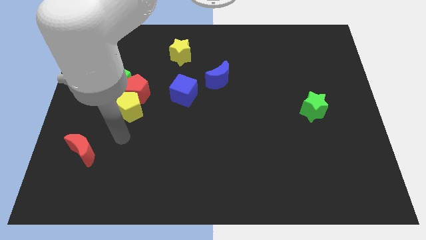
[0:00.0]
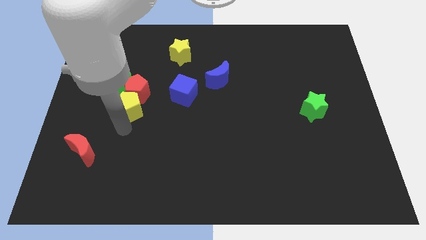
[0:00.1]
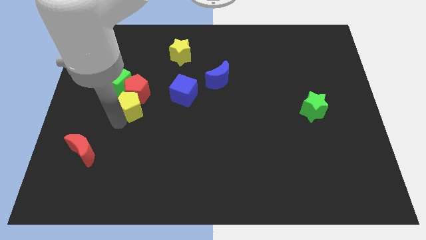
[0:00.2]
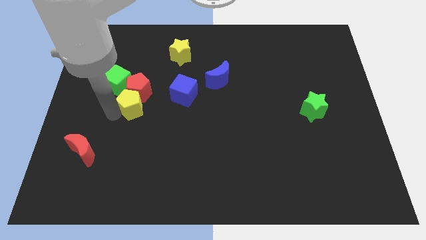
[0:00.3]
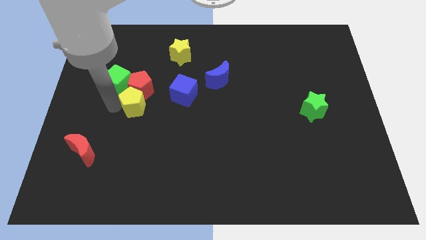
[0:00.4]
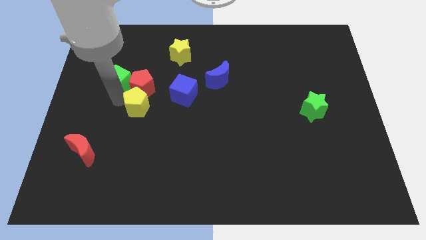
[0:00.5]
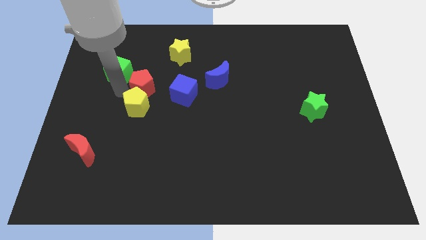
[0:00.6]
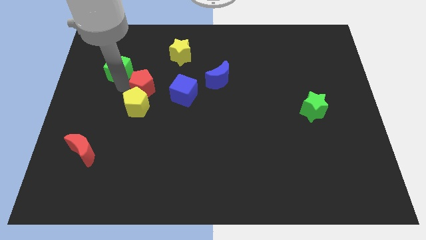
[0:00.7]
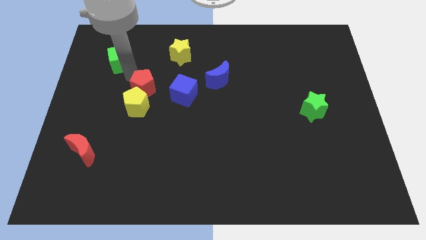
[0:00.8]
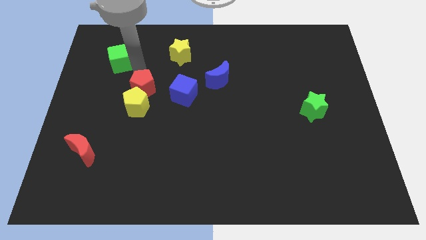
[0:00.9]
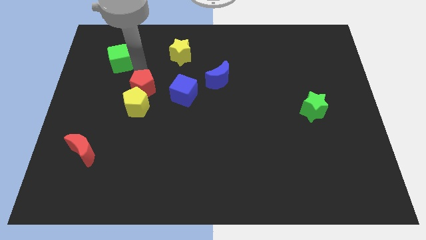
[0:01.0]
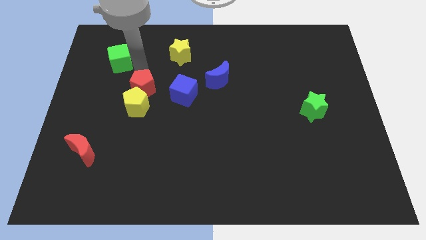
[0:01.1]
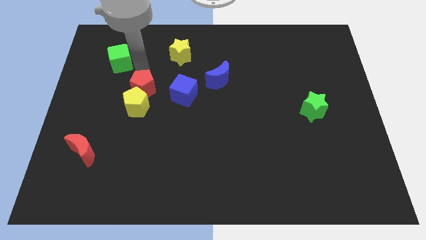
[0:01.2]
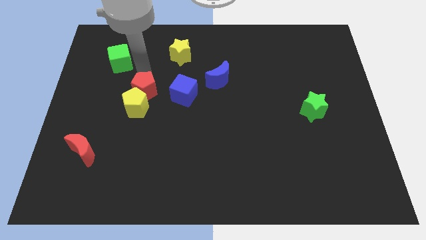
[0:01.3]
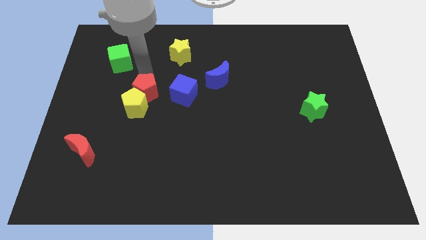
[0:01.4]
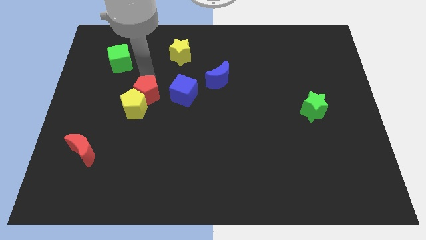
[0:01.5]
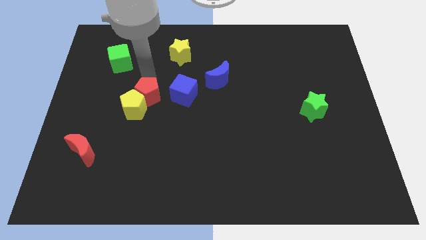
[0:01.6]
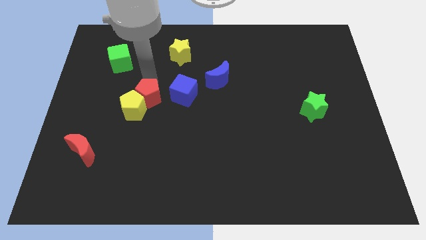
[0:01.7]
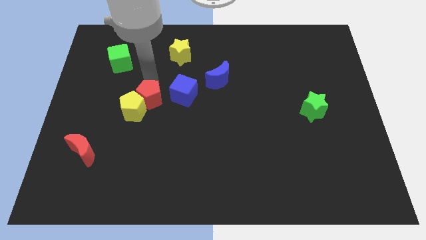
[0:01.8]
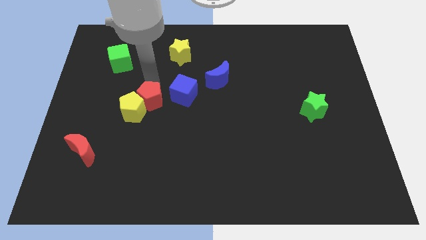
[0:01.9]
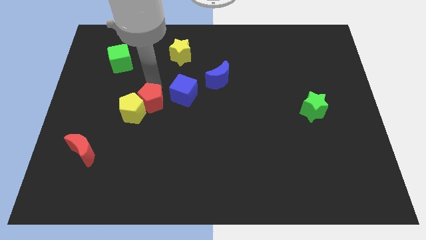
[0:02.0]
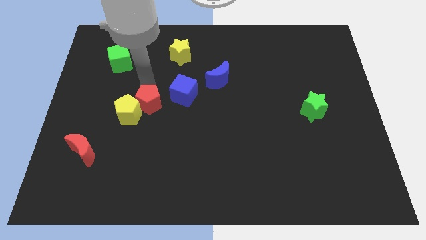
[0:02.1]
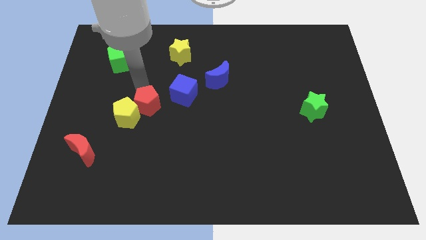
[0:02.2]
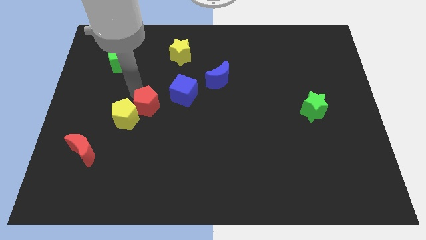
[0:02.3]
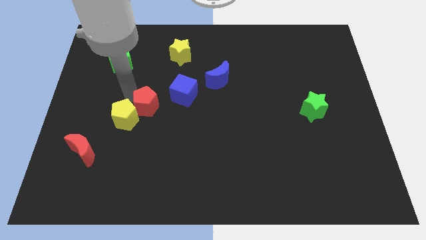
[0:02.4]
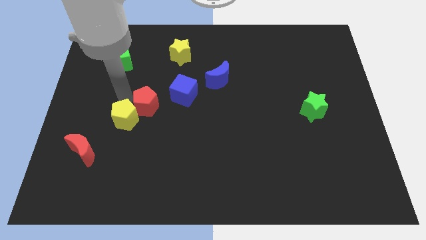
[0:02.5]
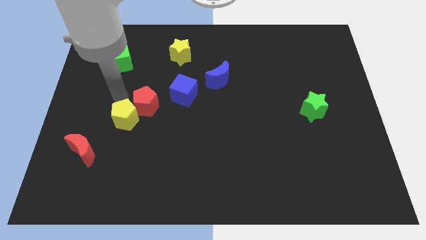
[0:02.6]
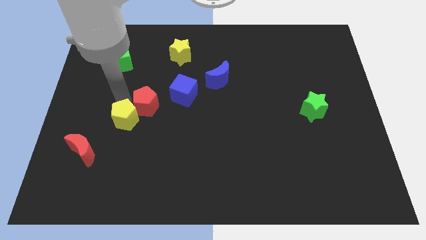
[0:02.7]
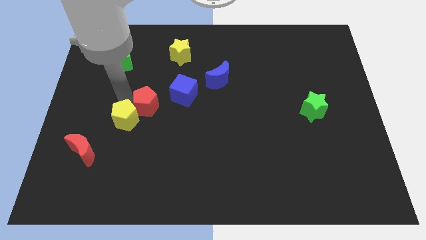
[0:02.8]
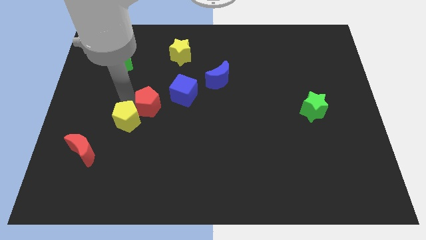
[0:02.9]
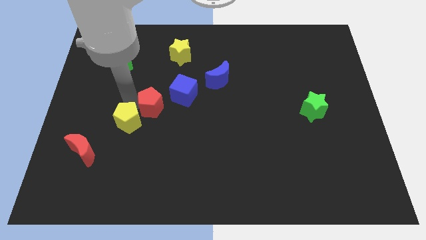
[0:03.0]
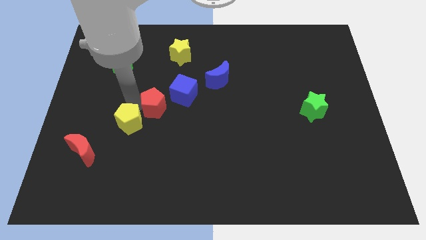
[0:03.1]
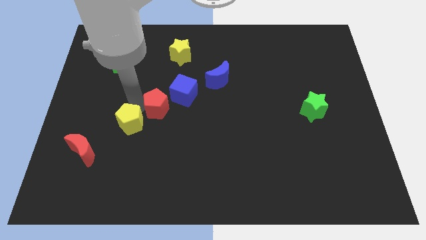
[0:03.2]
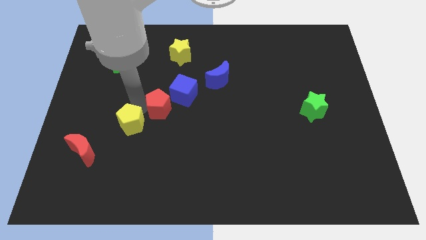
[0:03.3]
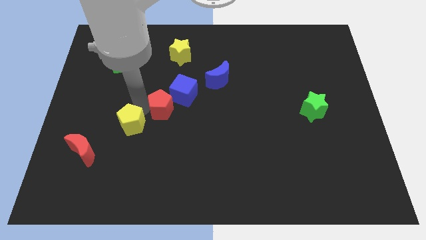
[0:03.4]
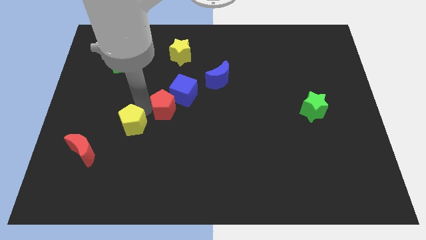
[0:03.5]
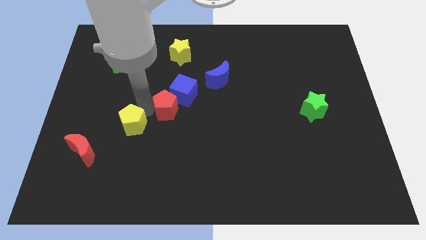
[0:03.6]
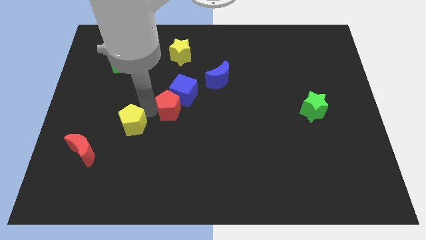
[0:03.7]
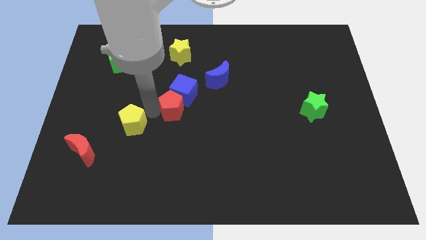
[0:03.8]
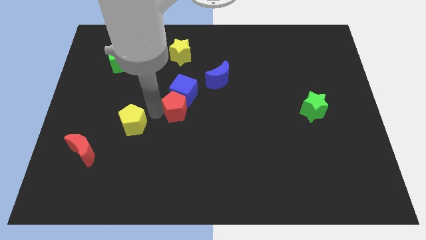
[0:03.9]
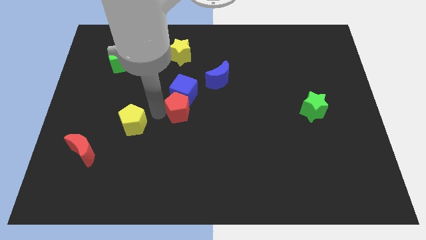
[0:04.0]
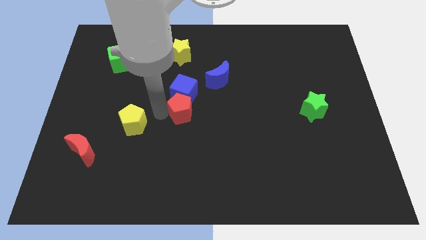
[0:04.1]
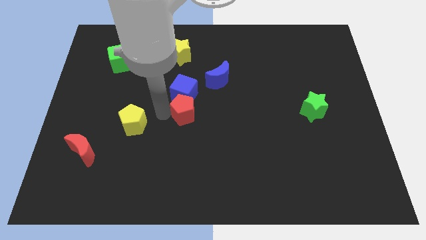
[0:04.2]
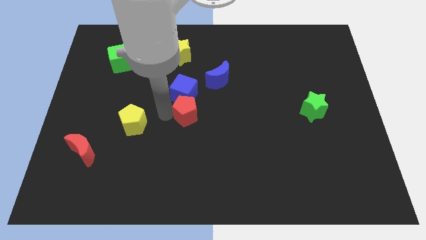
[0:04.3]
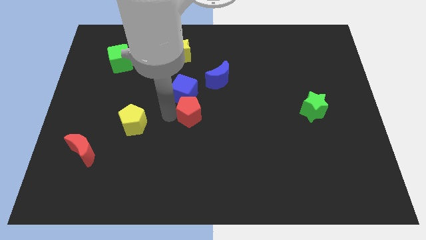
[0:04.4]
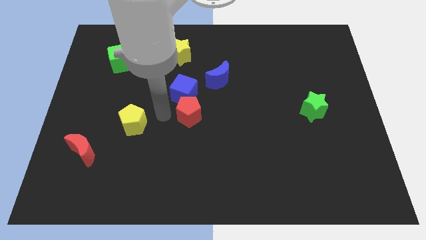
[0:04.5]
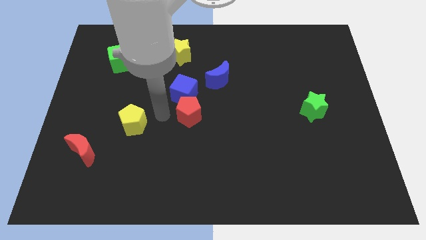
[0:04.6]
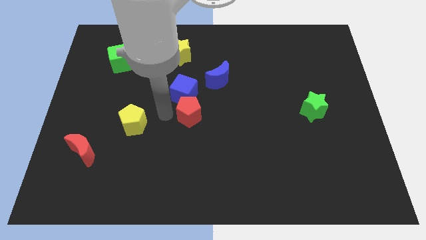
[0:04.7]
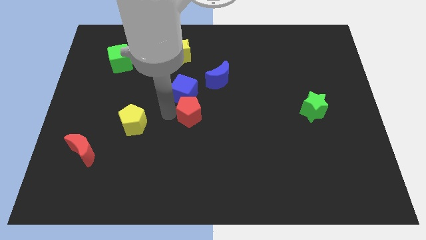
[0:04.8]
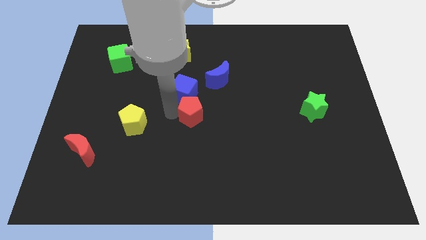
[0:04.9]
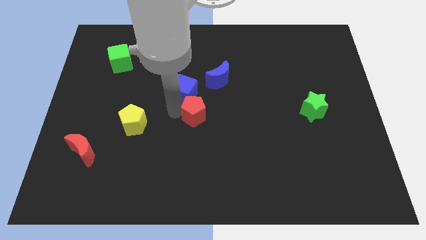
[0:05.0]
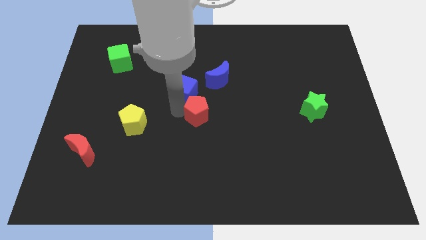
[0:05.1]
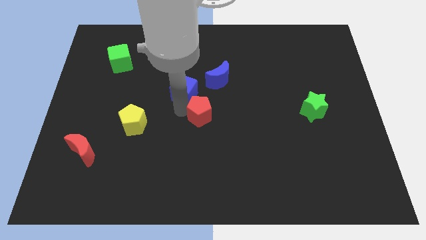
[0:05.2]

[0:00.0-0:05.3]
push the red pentagon below the blue moon

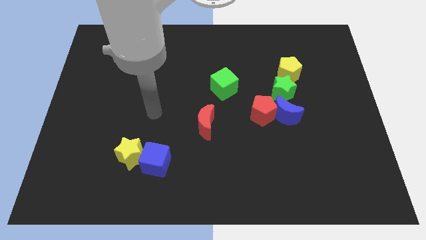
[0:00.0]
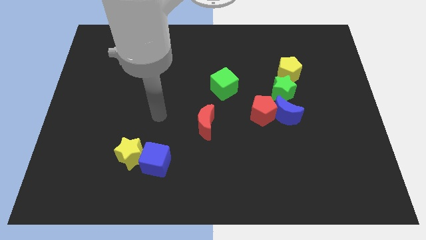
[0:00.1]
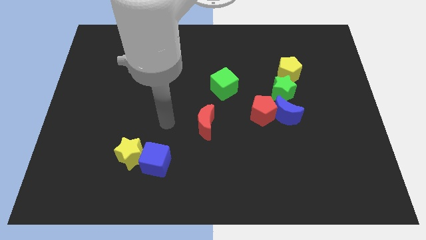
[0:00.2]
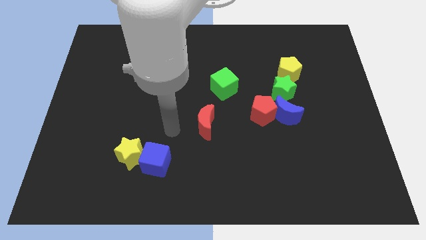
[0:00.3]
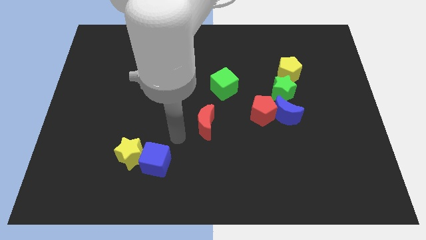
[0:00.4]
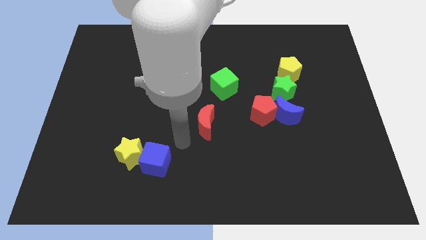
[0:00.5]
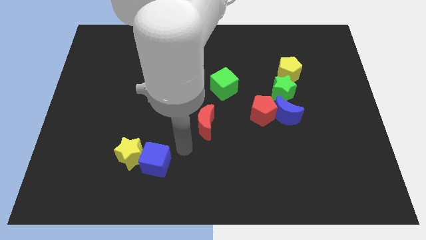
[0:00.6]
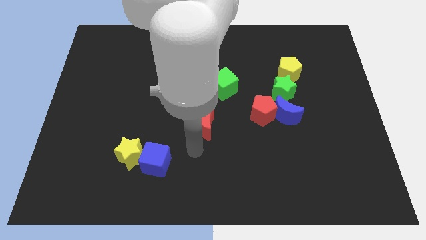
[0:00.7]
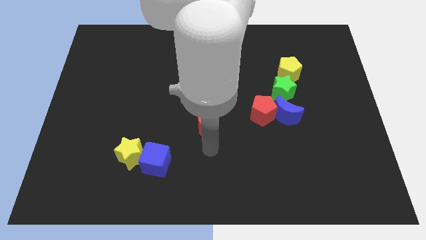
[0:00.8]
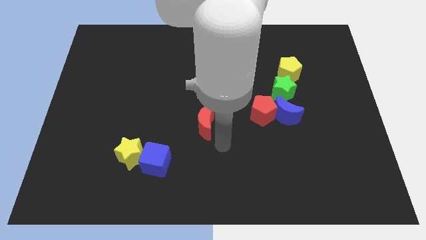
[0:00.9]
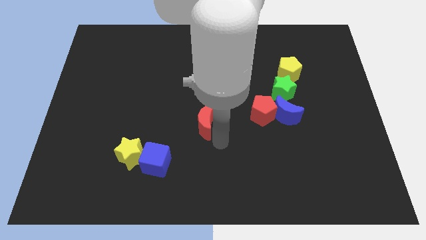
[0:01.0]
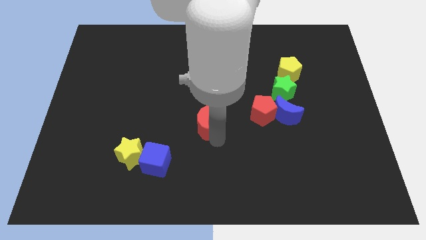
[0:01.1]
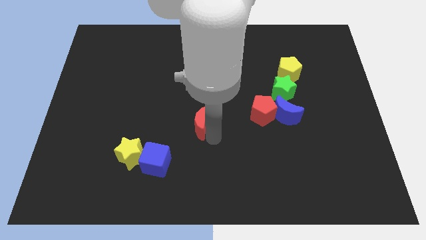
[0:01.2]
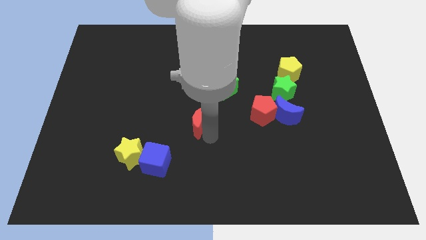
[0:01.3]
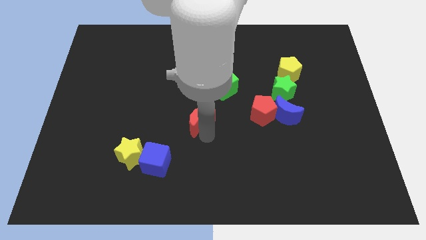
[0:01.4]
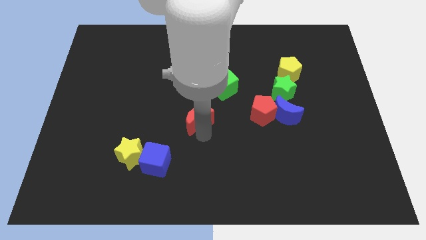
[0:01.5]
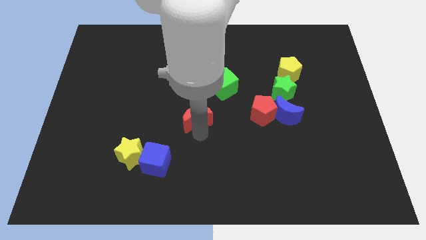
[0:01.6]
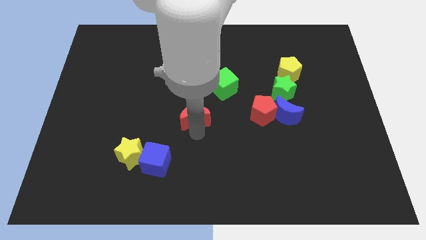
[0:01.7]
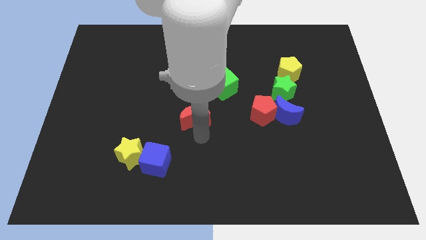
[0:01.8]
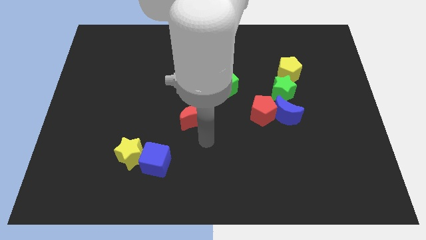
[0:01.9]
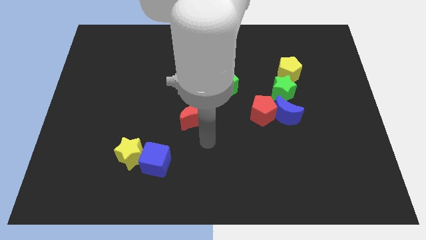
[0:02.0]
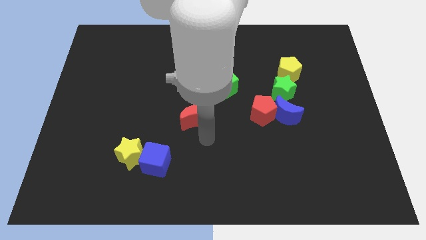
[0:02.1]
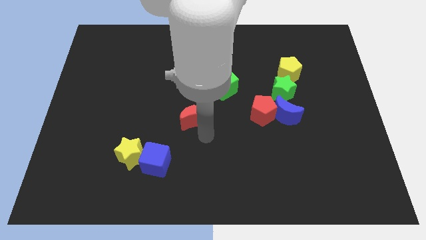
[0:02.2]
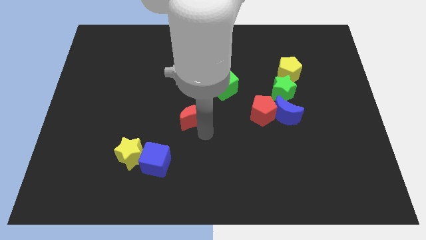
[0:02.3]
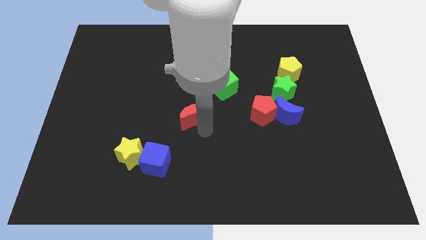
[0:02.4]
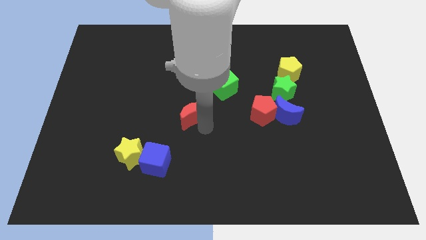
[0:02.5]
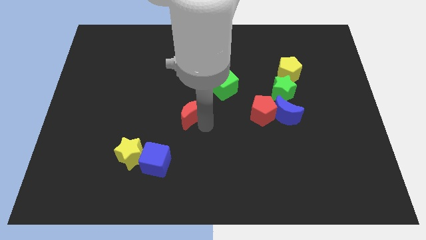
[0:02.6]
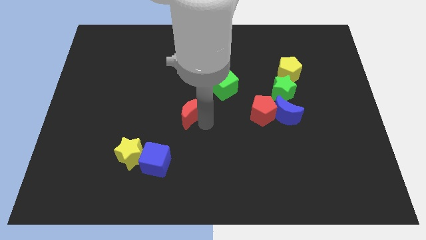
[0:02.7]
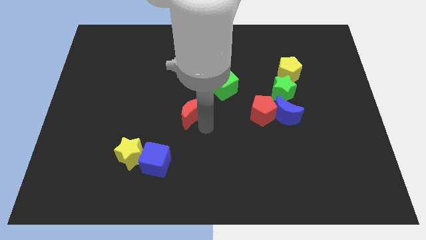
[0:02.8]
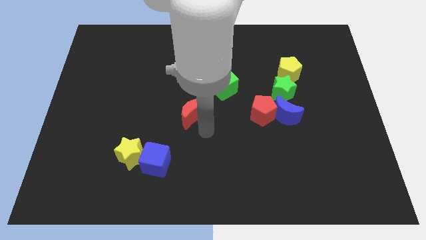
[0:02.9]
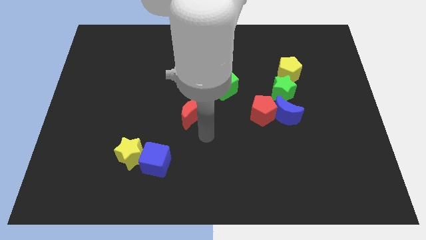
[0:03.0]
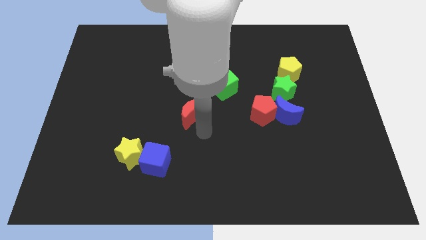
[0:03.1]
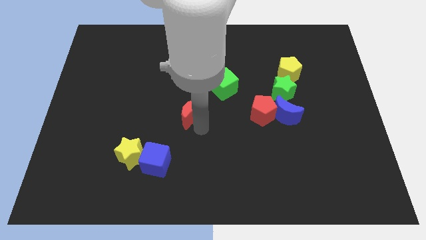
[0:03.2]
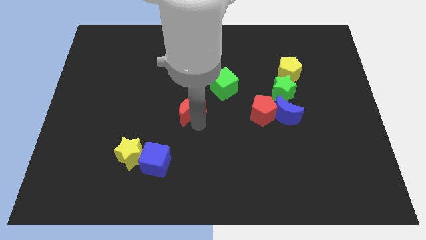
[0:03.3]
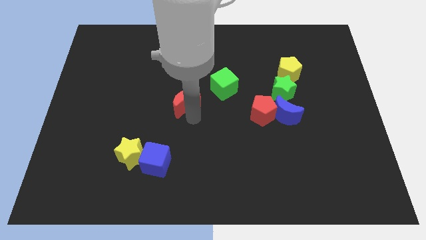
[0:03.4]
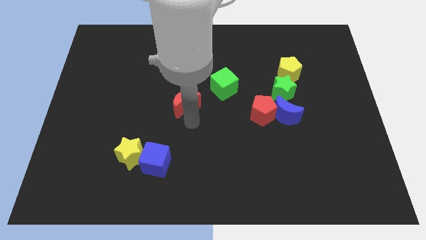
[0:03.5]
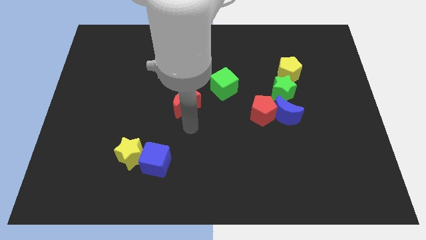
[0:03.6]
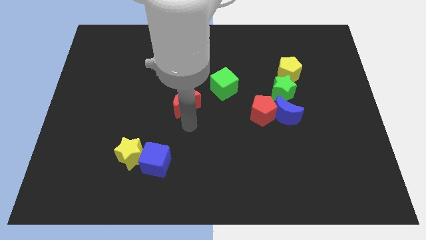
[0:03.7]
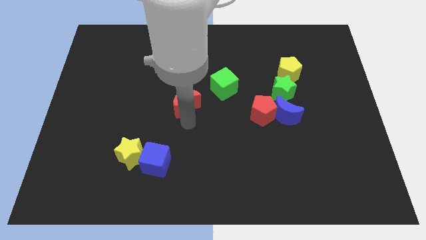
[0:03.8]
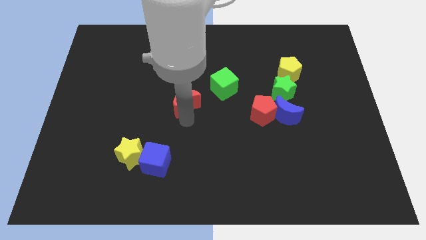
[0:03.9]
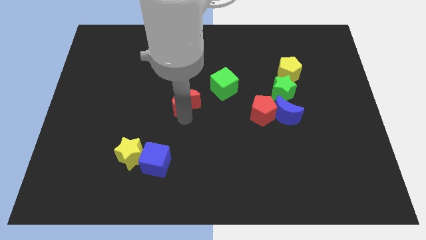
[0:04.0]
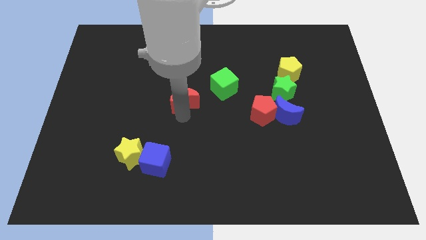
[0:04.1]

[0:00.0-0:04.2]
push the red moon to the left side of the green cube
